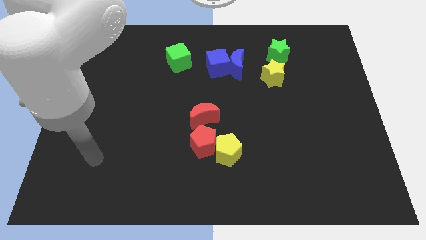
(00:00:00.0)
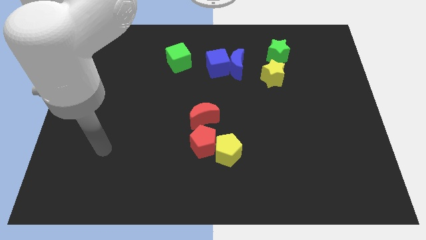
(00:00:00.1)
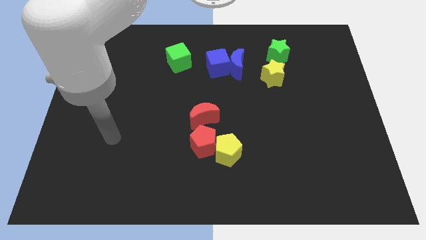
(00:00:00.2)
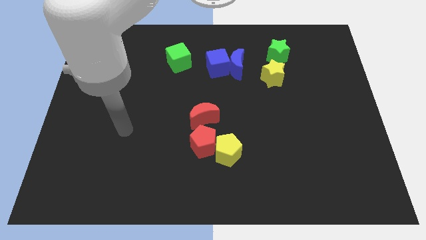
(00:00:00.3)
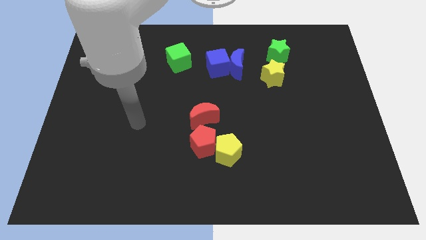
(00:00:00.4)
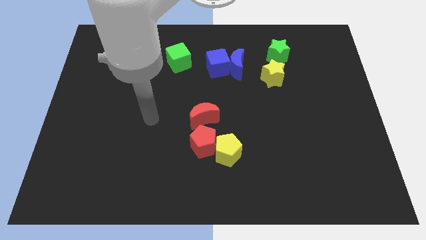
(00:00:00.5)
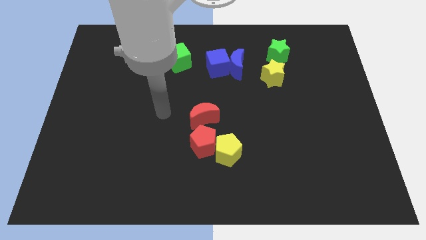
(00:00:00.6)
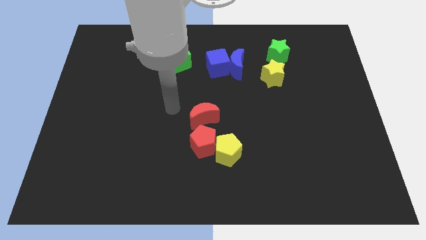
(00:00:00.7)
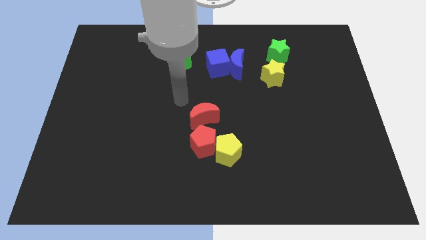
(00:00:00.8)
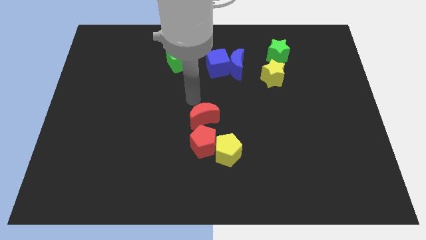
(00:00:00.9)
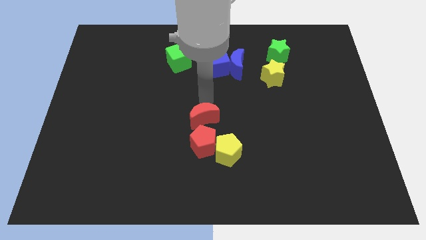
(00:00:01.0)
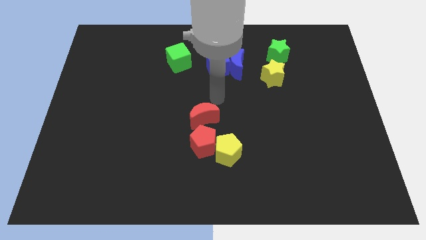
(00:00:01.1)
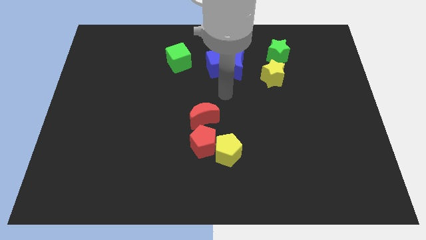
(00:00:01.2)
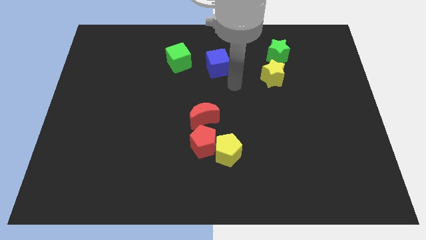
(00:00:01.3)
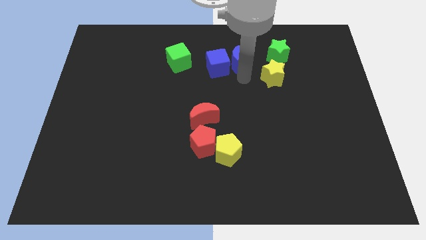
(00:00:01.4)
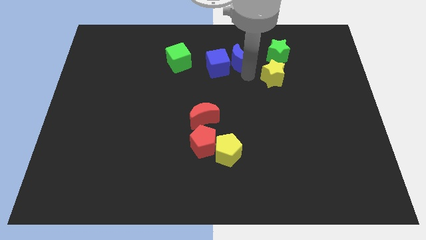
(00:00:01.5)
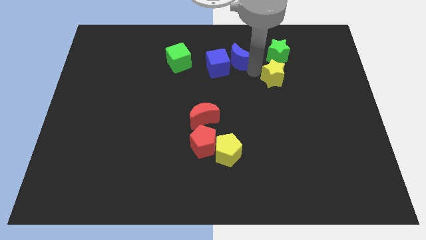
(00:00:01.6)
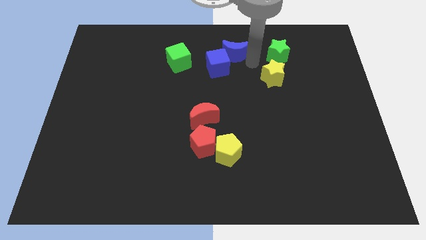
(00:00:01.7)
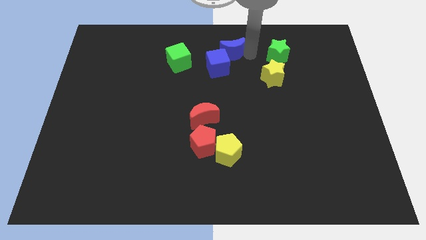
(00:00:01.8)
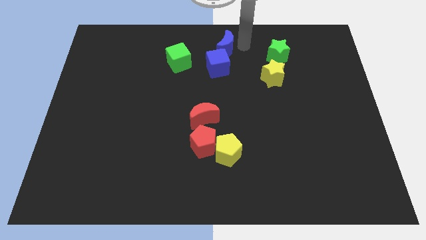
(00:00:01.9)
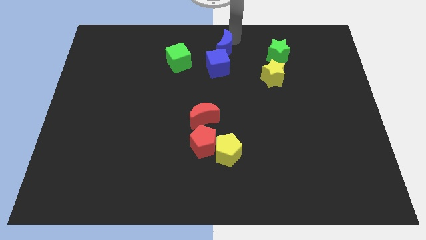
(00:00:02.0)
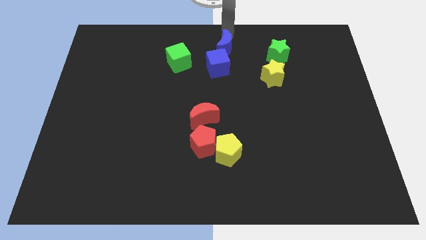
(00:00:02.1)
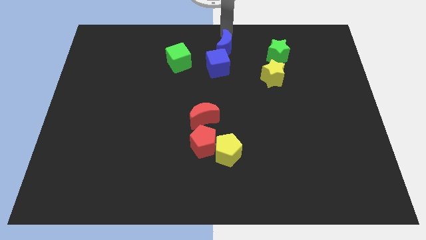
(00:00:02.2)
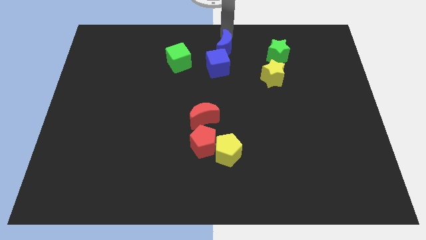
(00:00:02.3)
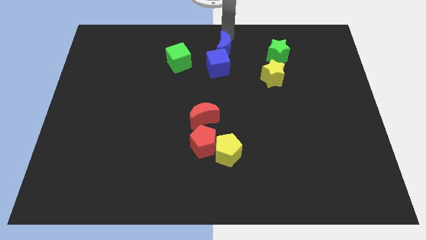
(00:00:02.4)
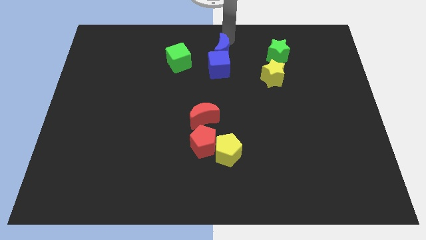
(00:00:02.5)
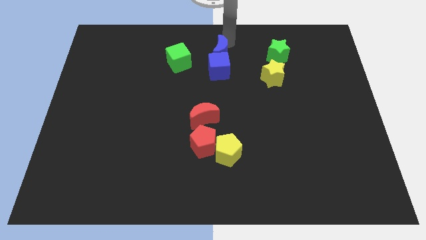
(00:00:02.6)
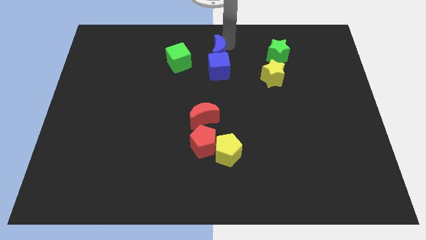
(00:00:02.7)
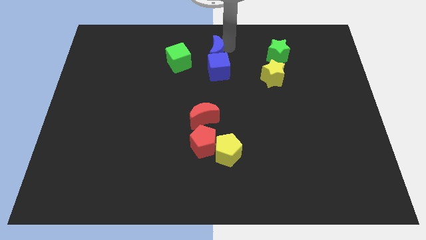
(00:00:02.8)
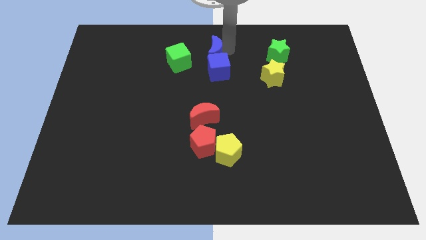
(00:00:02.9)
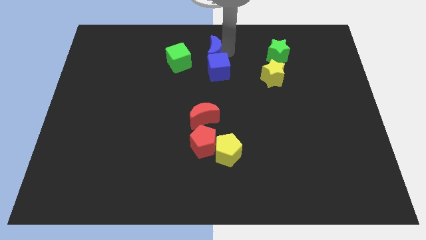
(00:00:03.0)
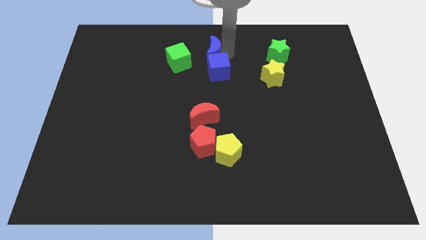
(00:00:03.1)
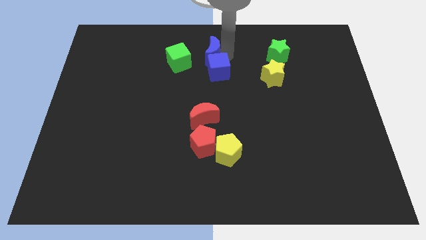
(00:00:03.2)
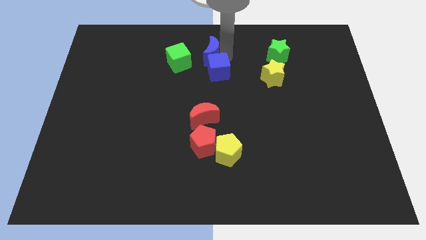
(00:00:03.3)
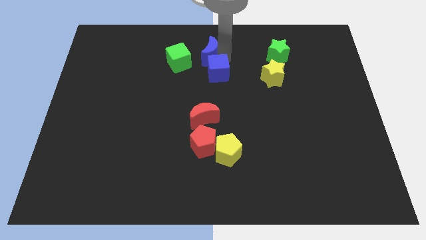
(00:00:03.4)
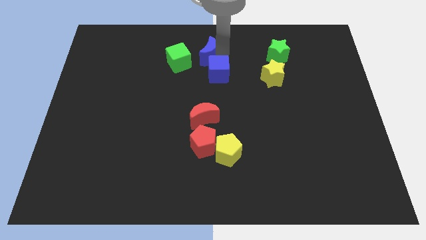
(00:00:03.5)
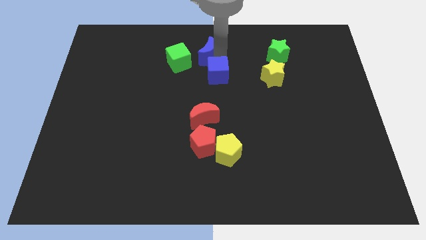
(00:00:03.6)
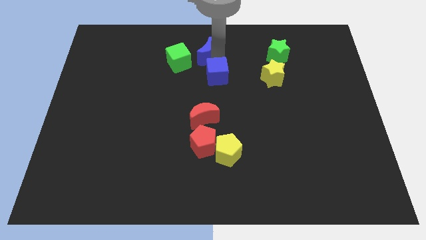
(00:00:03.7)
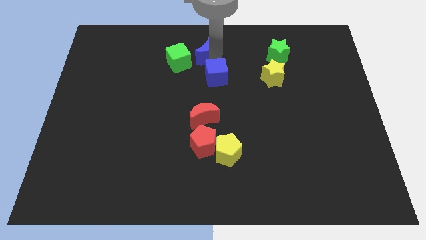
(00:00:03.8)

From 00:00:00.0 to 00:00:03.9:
slightly move the blue moon left

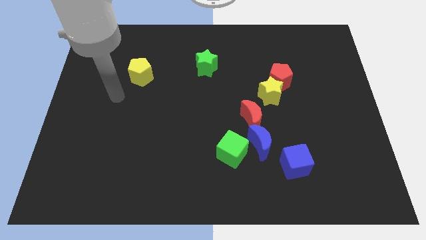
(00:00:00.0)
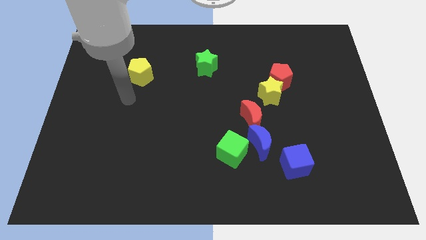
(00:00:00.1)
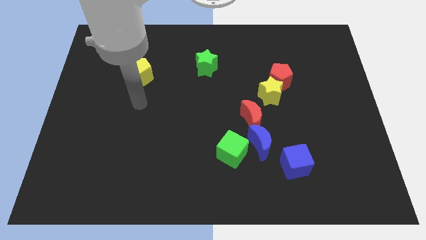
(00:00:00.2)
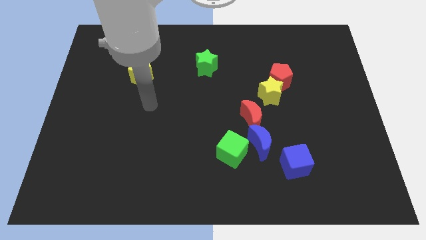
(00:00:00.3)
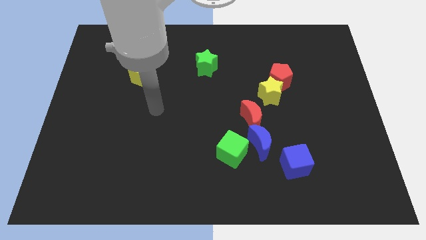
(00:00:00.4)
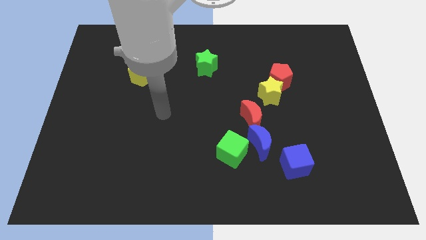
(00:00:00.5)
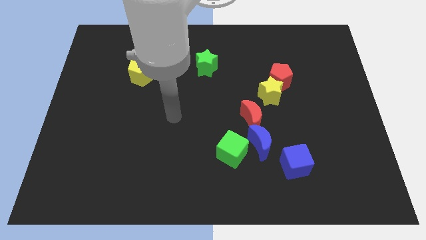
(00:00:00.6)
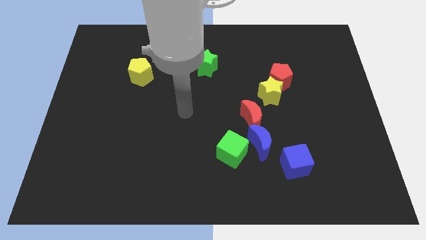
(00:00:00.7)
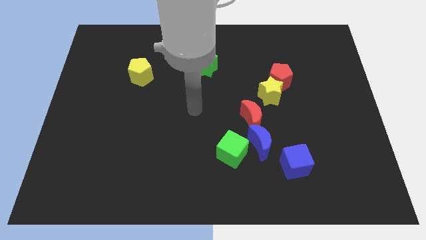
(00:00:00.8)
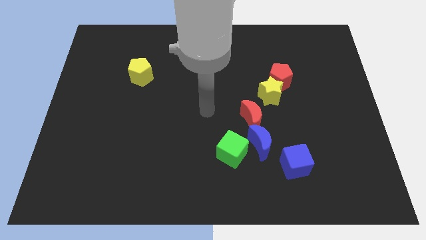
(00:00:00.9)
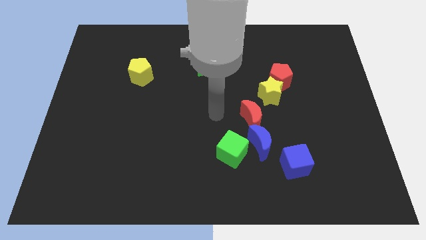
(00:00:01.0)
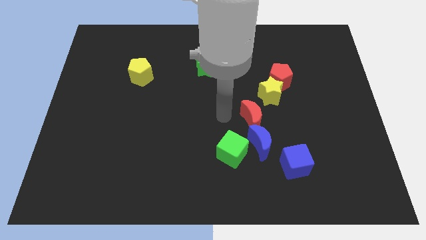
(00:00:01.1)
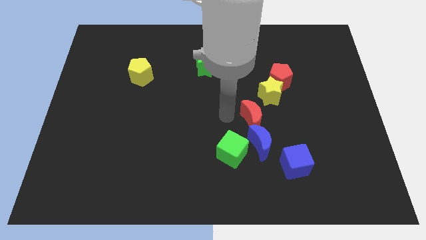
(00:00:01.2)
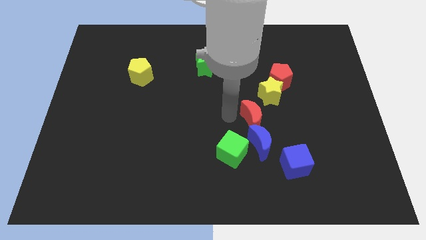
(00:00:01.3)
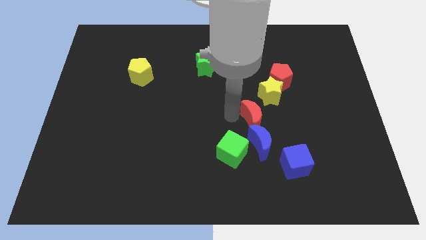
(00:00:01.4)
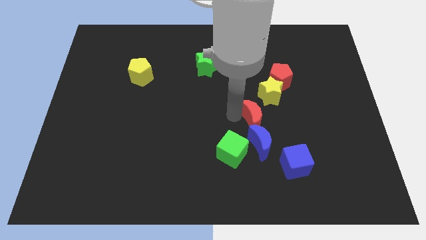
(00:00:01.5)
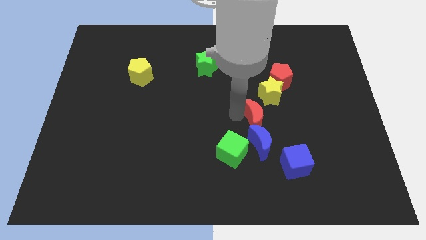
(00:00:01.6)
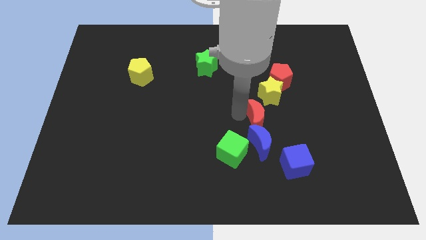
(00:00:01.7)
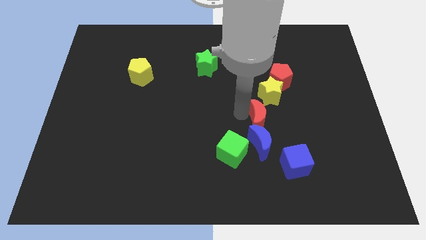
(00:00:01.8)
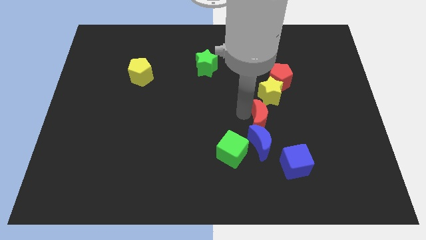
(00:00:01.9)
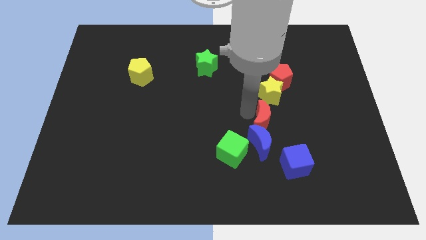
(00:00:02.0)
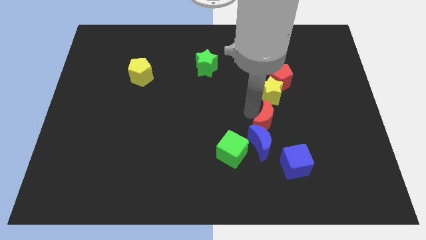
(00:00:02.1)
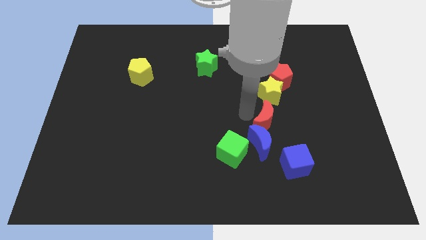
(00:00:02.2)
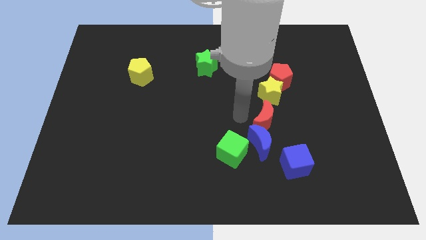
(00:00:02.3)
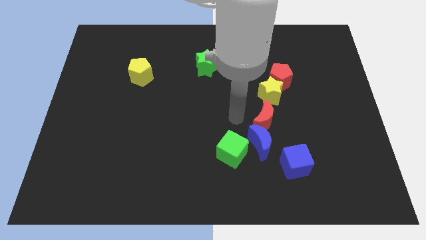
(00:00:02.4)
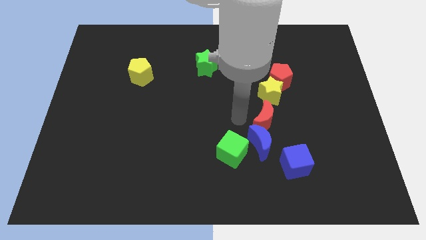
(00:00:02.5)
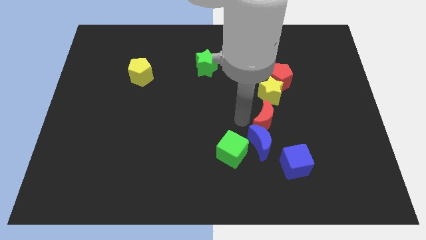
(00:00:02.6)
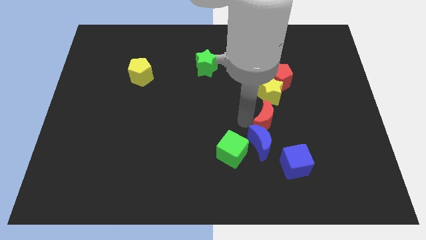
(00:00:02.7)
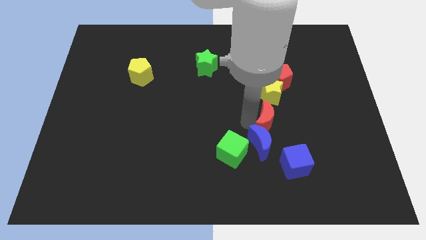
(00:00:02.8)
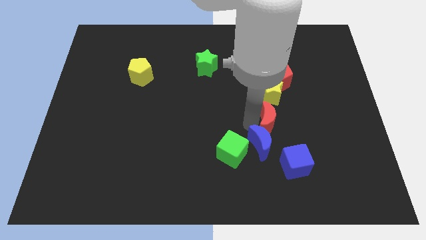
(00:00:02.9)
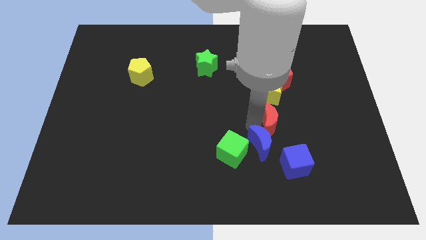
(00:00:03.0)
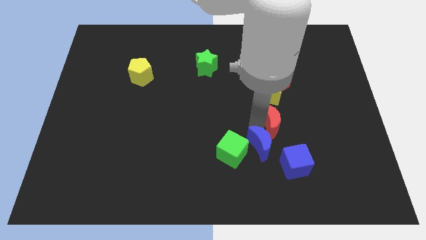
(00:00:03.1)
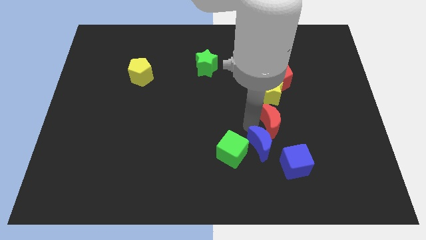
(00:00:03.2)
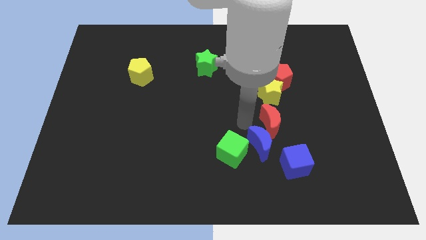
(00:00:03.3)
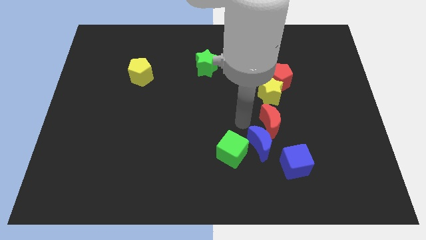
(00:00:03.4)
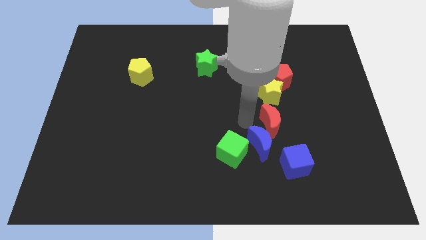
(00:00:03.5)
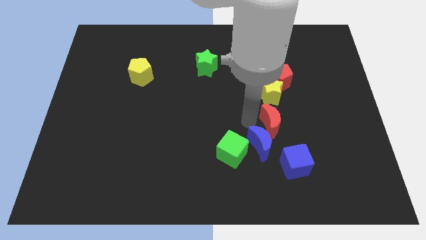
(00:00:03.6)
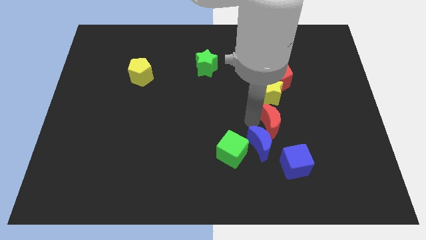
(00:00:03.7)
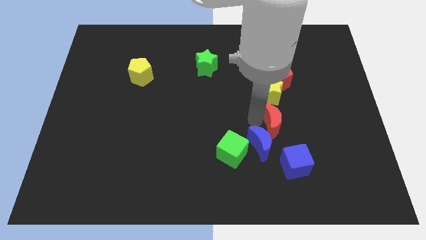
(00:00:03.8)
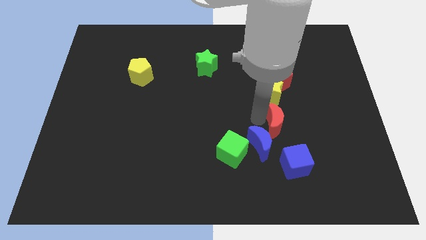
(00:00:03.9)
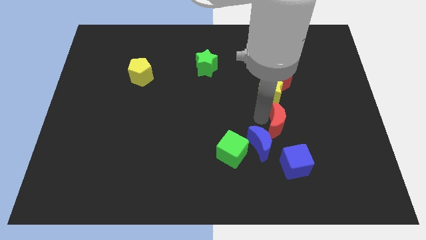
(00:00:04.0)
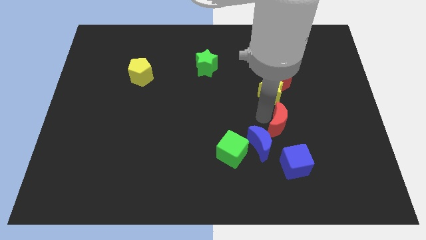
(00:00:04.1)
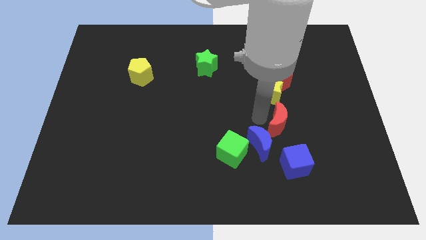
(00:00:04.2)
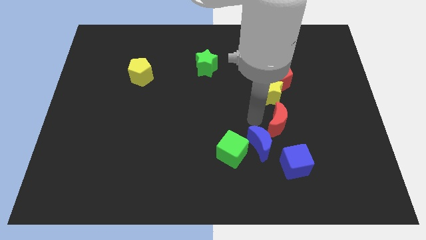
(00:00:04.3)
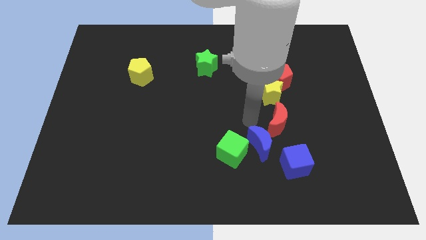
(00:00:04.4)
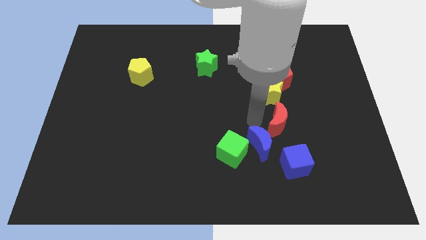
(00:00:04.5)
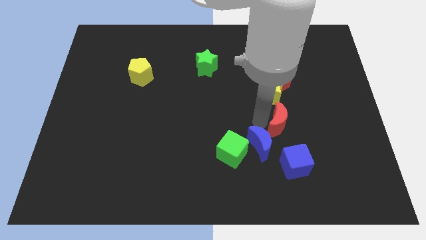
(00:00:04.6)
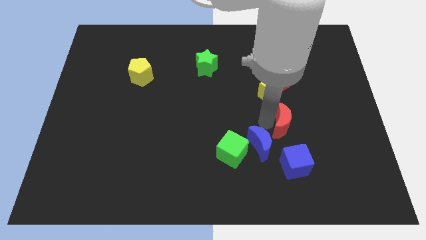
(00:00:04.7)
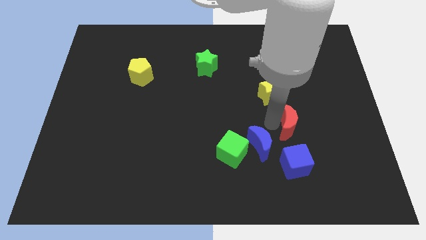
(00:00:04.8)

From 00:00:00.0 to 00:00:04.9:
move the red moon right a bit
